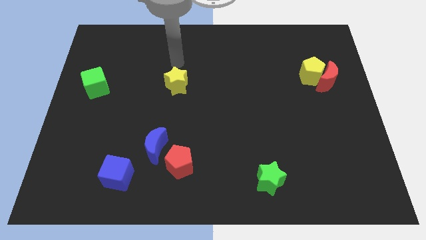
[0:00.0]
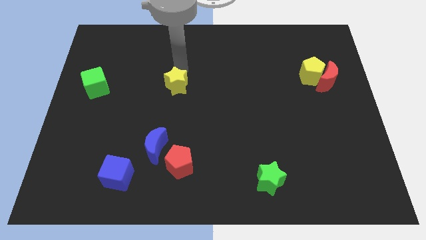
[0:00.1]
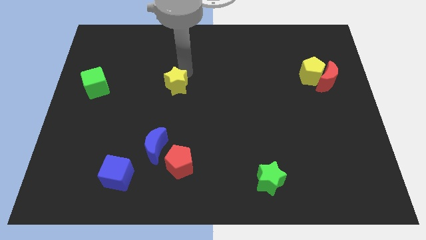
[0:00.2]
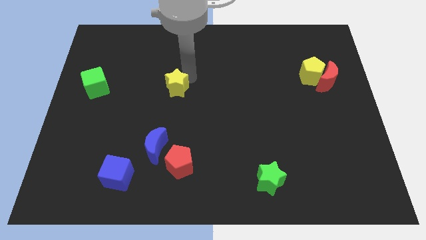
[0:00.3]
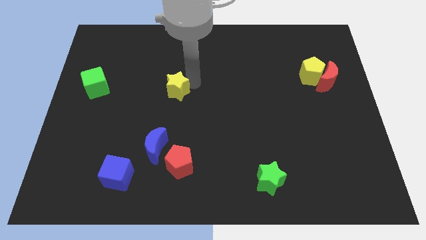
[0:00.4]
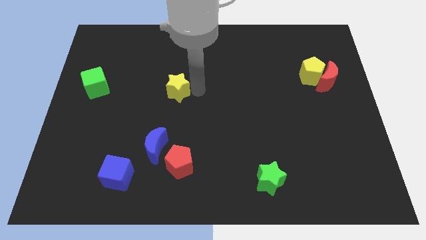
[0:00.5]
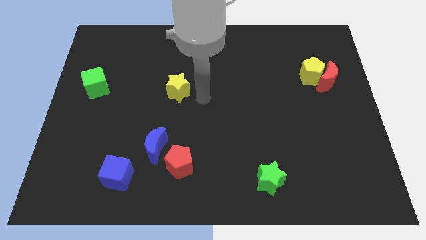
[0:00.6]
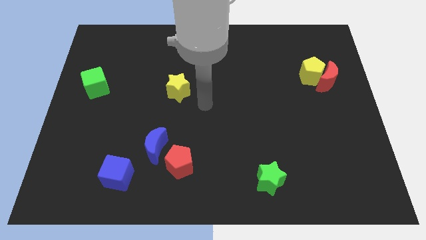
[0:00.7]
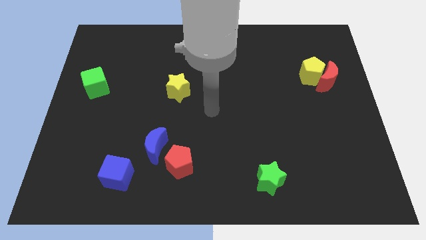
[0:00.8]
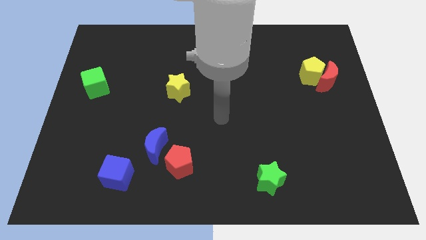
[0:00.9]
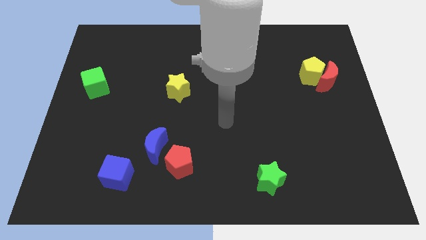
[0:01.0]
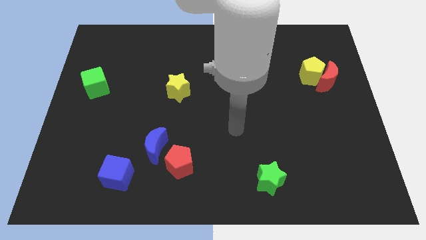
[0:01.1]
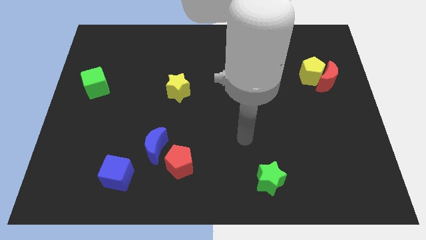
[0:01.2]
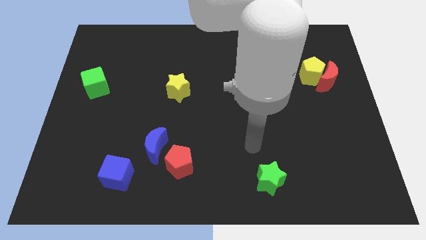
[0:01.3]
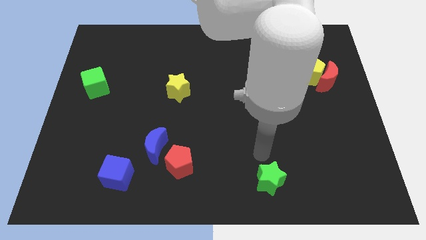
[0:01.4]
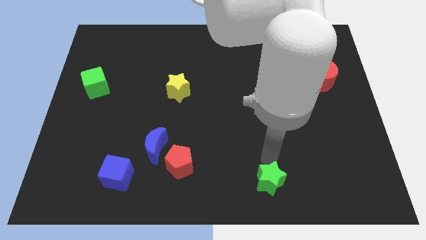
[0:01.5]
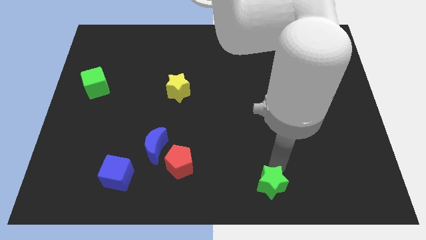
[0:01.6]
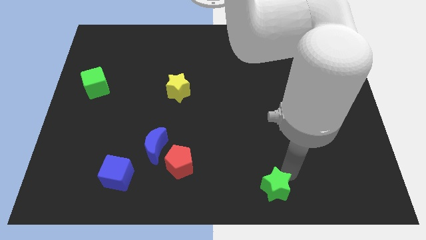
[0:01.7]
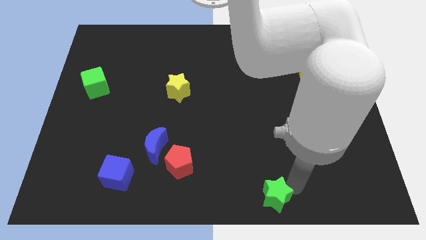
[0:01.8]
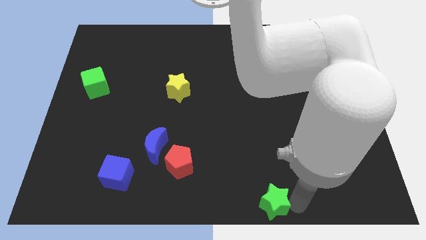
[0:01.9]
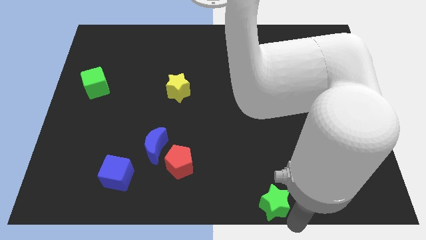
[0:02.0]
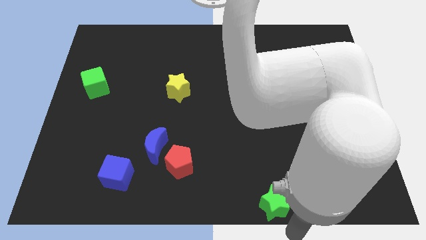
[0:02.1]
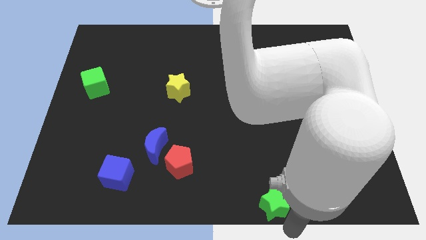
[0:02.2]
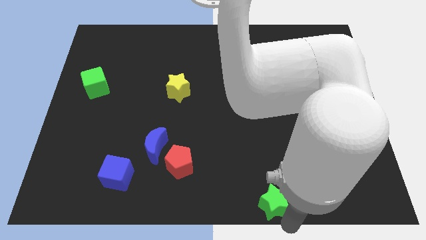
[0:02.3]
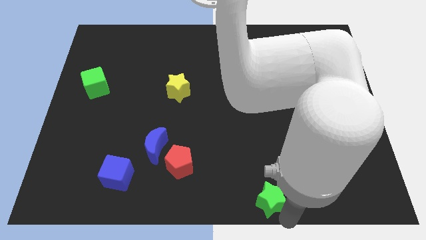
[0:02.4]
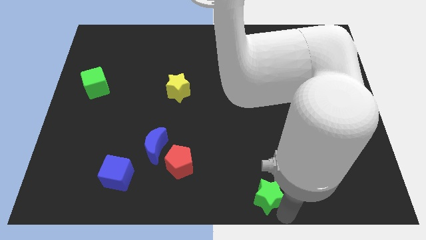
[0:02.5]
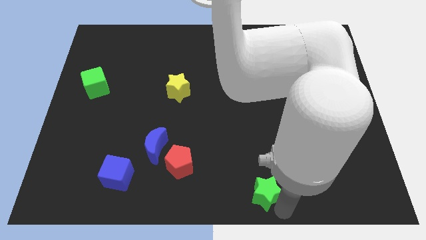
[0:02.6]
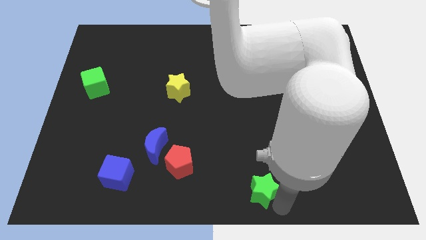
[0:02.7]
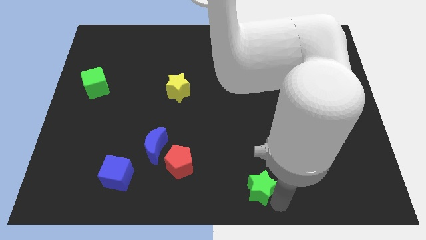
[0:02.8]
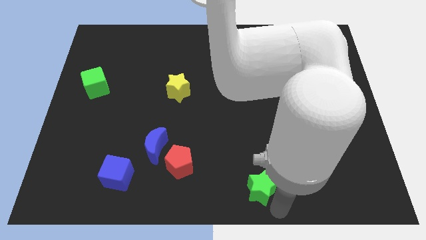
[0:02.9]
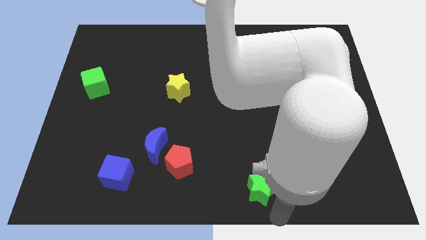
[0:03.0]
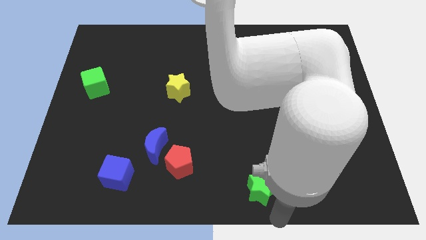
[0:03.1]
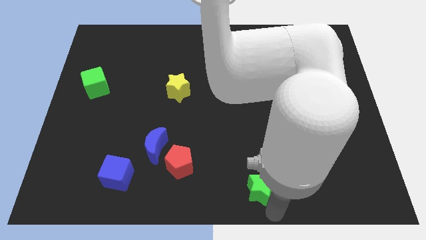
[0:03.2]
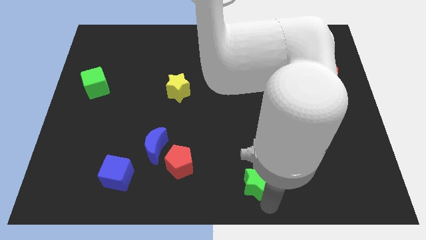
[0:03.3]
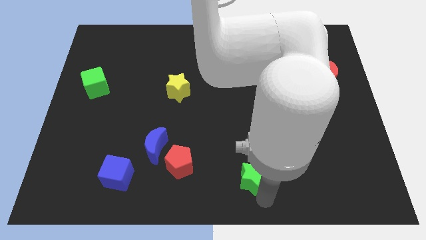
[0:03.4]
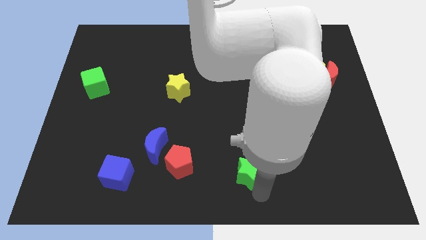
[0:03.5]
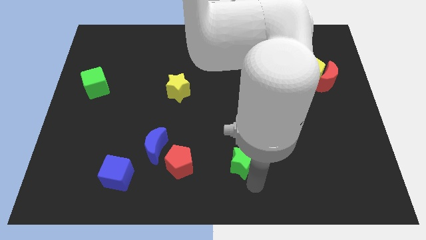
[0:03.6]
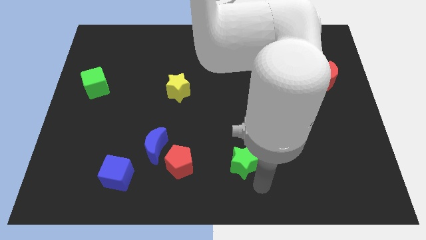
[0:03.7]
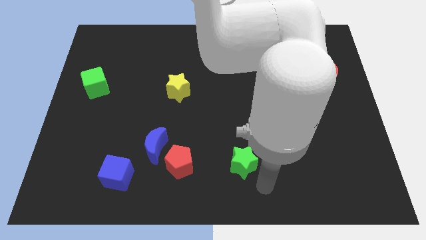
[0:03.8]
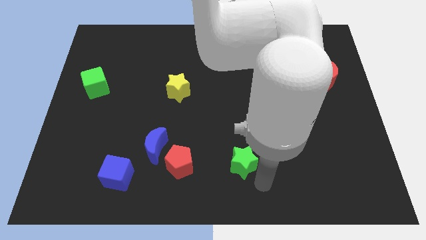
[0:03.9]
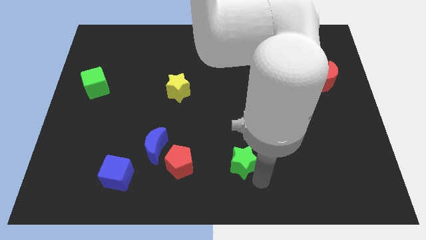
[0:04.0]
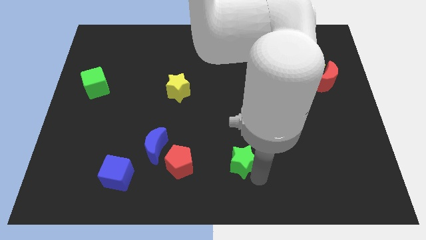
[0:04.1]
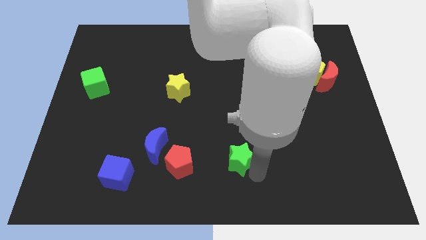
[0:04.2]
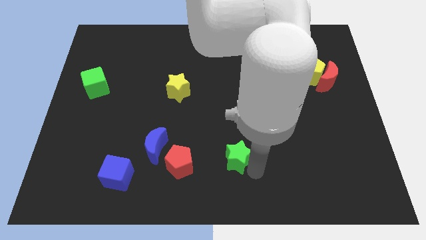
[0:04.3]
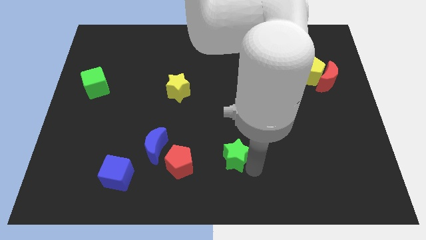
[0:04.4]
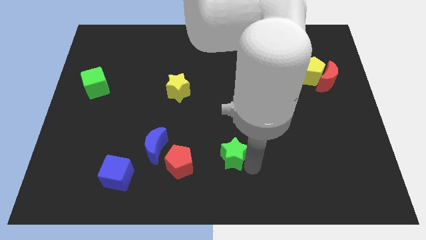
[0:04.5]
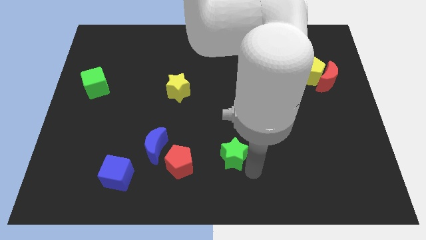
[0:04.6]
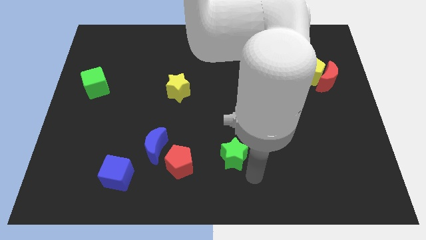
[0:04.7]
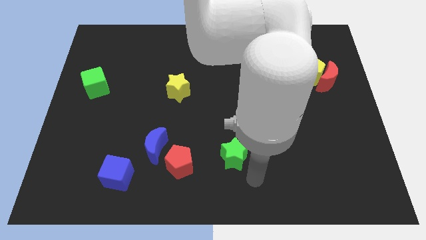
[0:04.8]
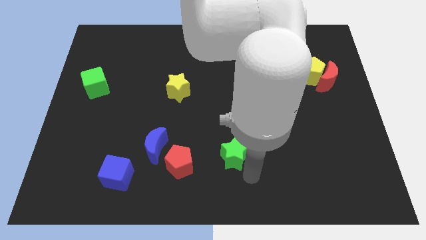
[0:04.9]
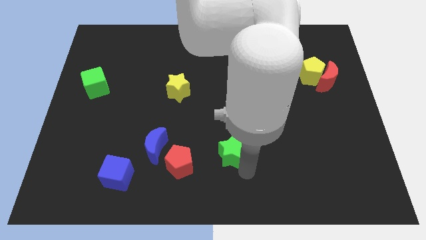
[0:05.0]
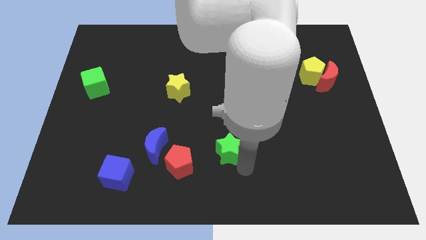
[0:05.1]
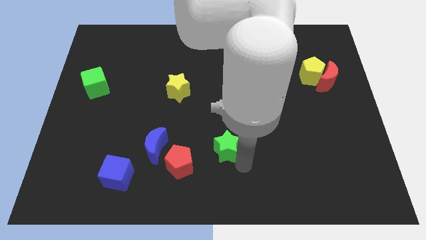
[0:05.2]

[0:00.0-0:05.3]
slide the green star to the top right side of the red pentagon

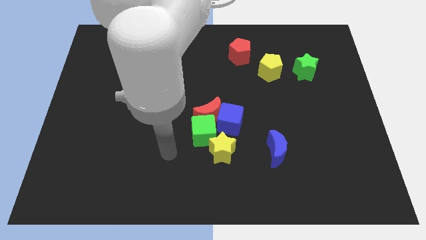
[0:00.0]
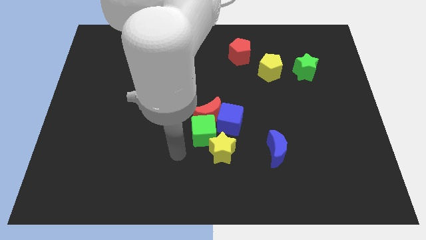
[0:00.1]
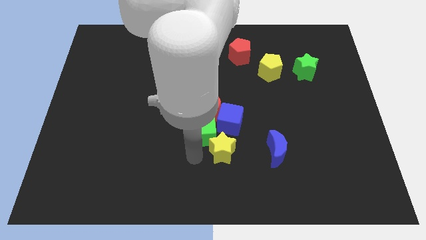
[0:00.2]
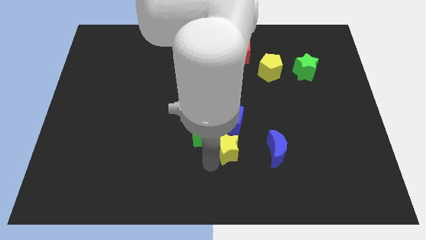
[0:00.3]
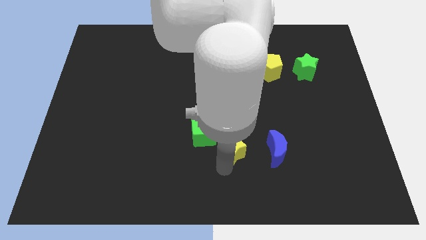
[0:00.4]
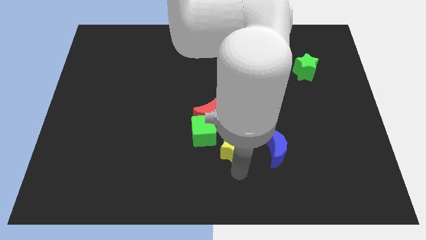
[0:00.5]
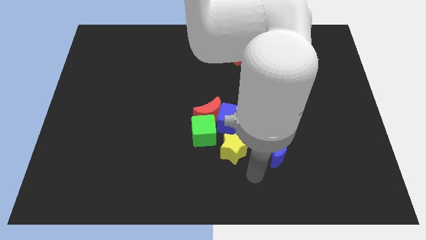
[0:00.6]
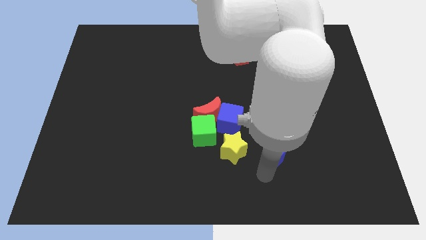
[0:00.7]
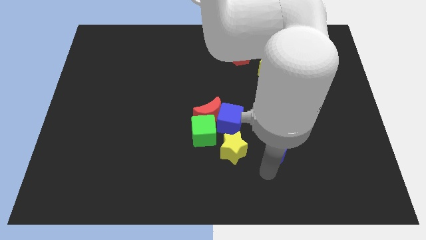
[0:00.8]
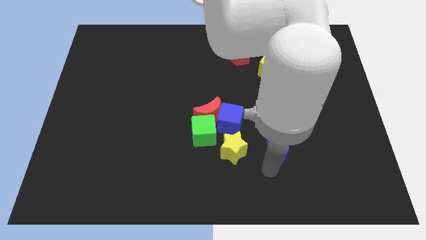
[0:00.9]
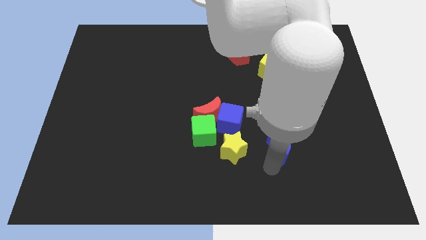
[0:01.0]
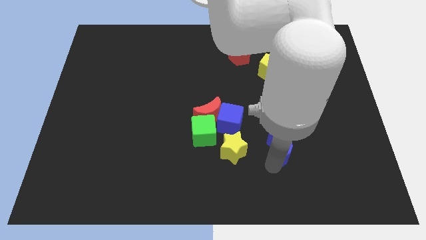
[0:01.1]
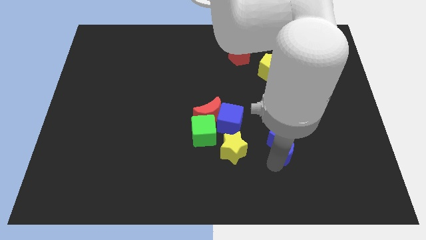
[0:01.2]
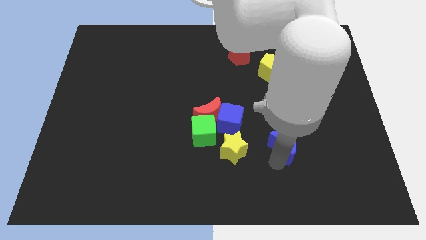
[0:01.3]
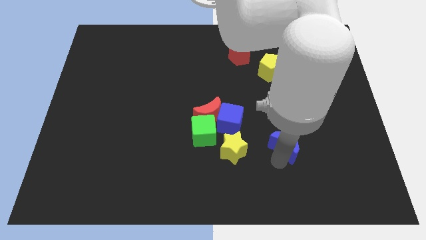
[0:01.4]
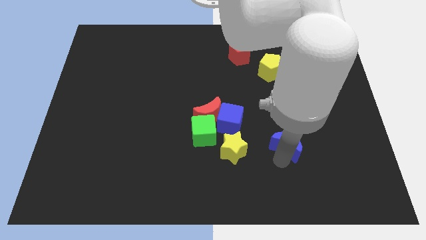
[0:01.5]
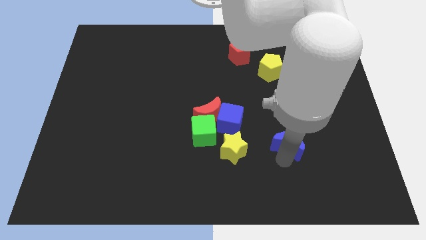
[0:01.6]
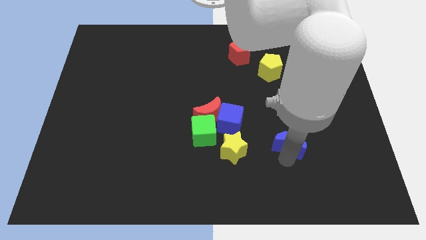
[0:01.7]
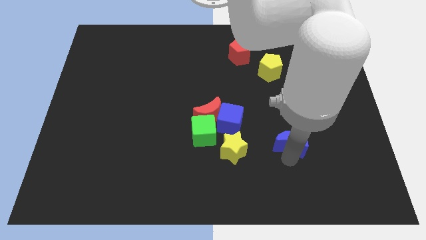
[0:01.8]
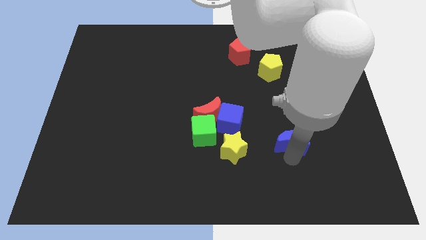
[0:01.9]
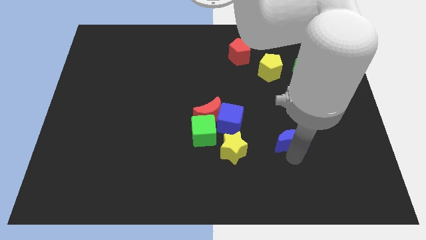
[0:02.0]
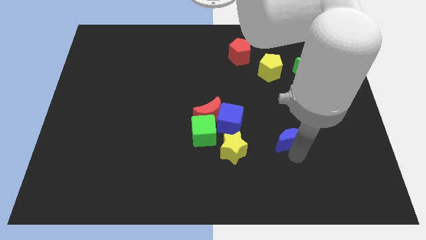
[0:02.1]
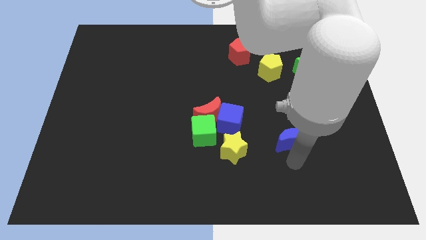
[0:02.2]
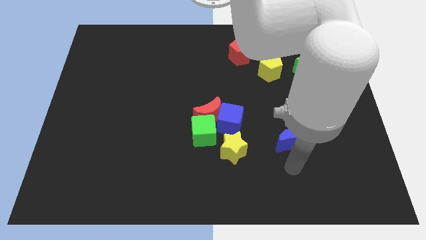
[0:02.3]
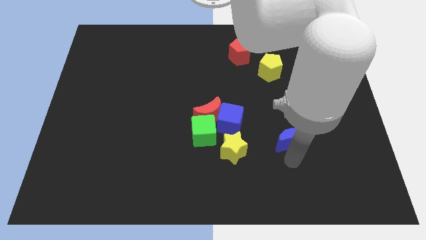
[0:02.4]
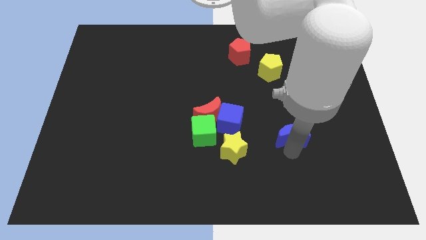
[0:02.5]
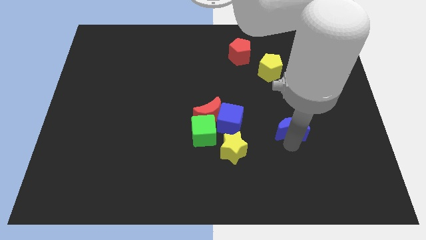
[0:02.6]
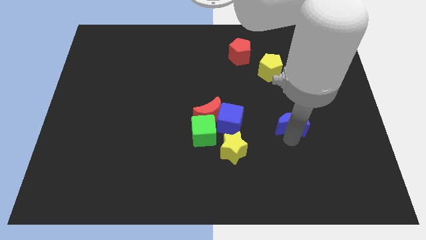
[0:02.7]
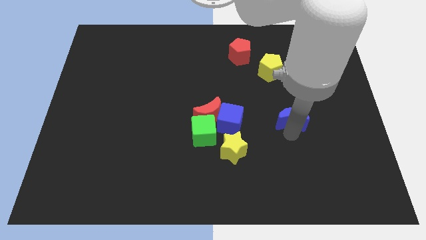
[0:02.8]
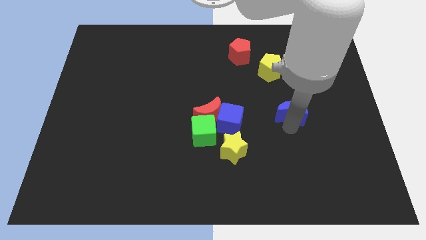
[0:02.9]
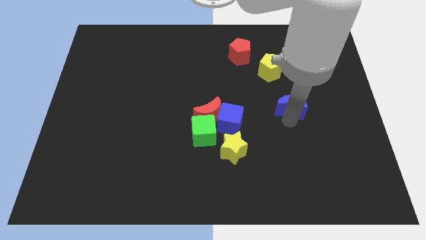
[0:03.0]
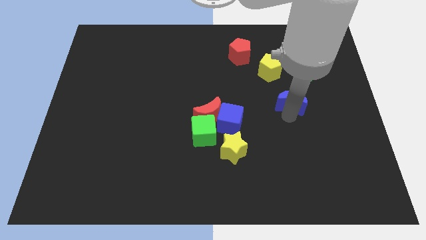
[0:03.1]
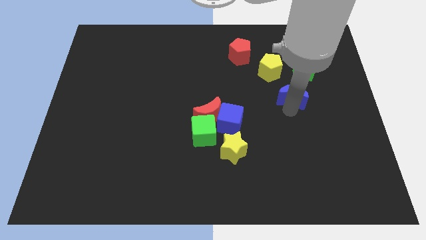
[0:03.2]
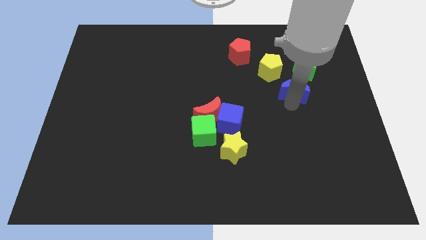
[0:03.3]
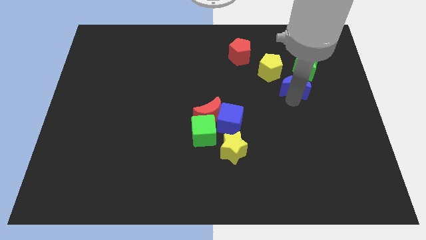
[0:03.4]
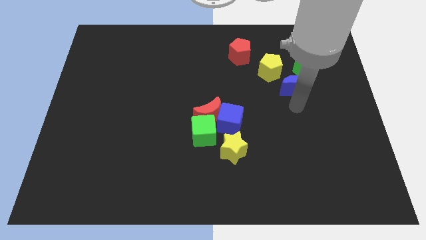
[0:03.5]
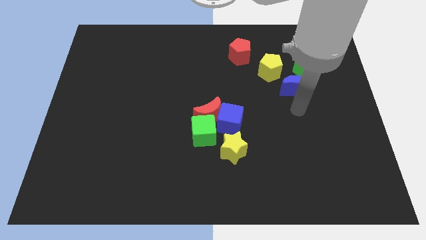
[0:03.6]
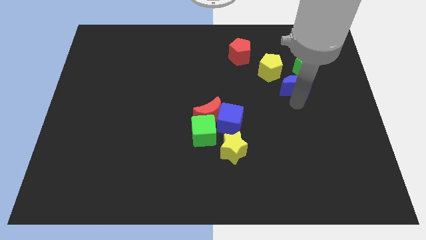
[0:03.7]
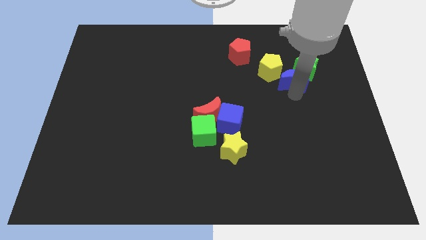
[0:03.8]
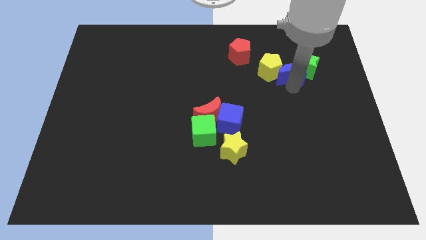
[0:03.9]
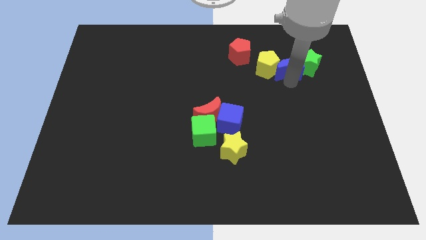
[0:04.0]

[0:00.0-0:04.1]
push the blue moon to the top right of the yellow pentagon
